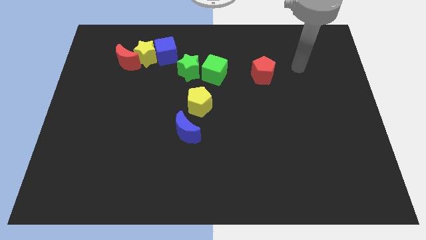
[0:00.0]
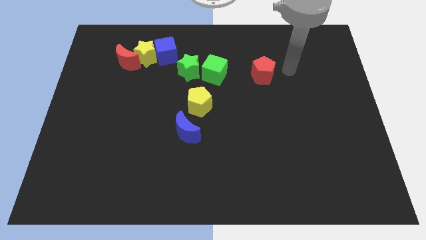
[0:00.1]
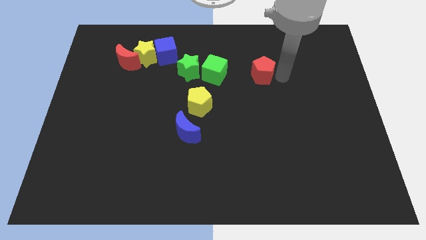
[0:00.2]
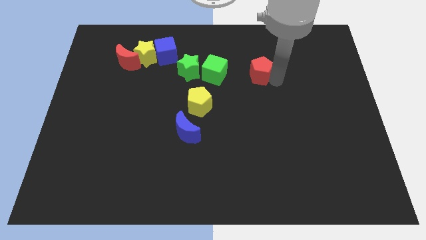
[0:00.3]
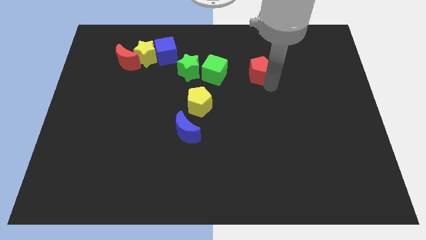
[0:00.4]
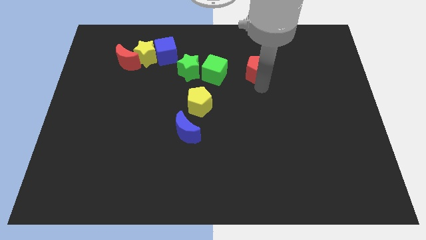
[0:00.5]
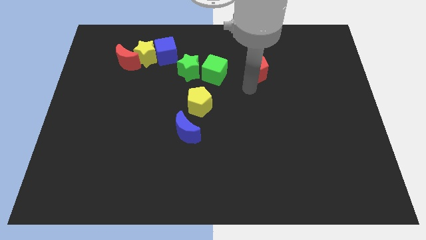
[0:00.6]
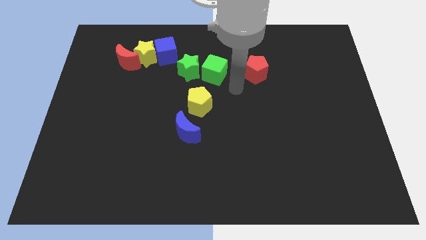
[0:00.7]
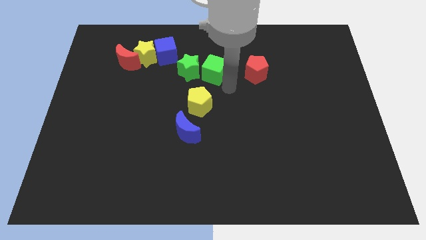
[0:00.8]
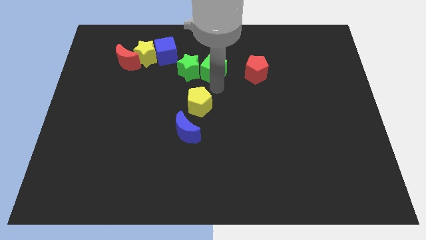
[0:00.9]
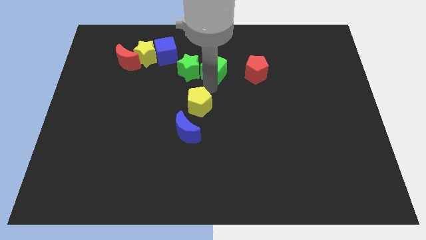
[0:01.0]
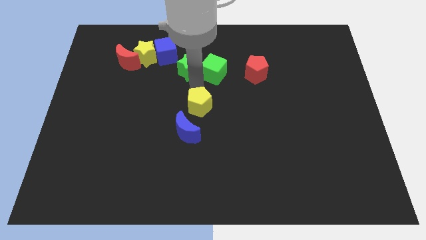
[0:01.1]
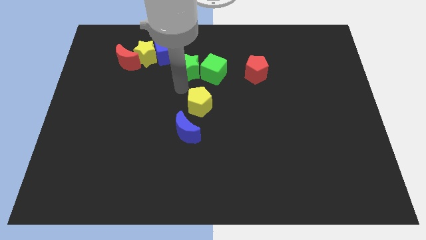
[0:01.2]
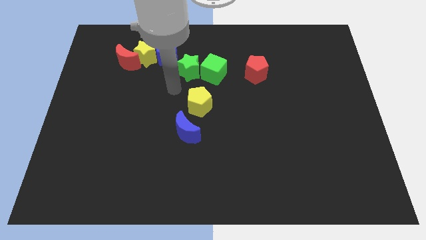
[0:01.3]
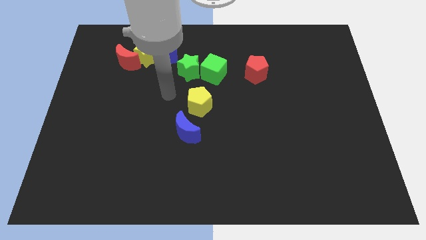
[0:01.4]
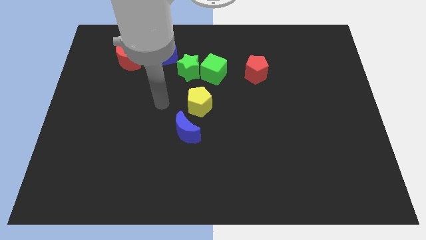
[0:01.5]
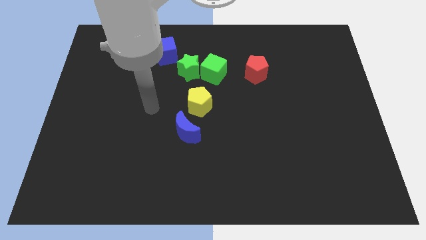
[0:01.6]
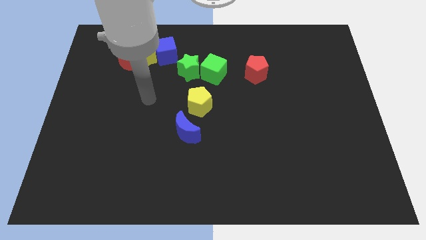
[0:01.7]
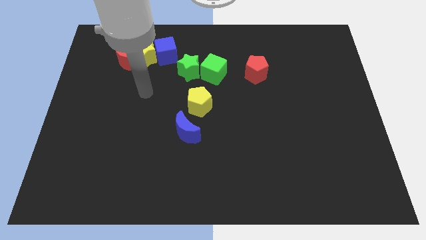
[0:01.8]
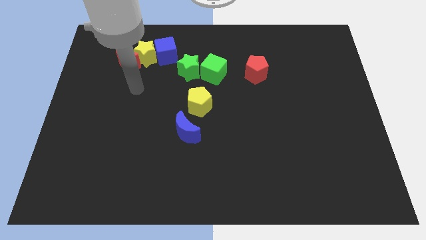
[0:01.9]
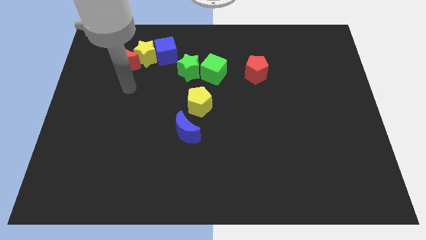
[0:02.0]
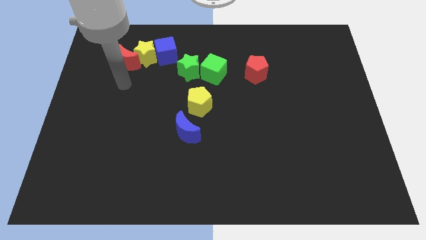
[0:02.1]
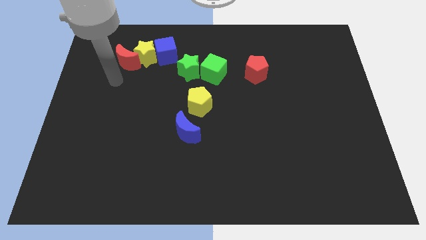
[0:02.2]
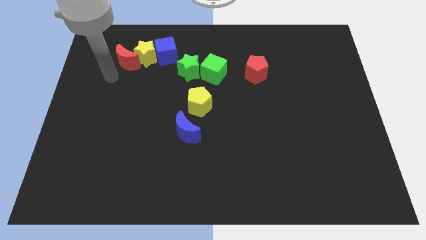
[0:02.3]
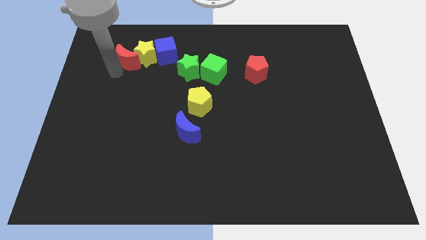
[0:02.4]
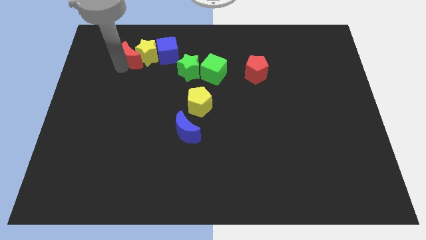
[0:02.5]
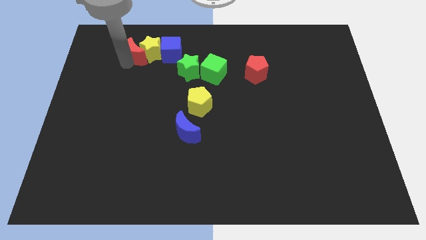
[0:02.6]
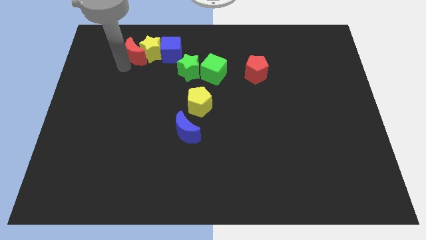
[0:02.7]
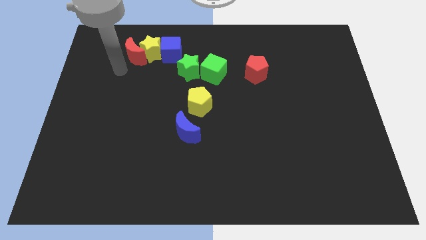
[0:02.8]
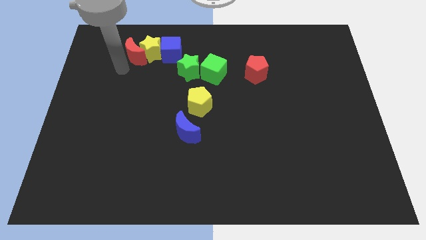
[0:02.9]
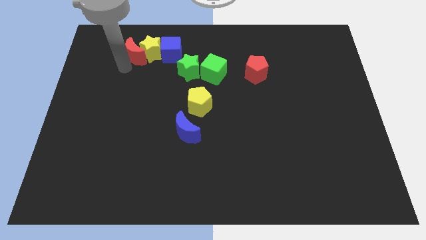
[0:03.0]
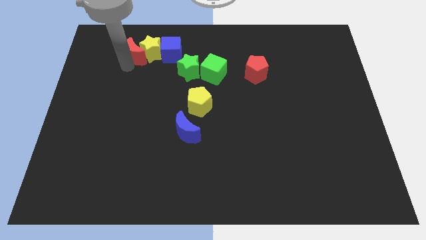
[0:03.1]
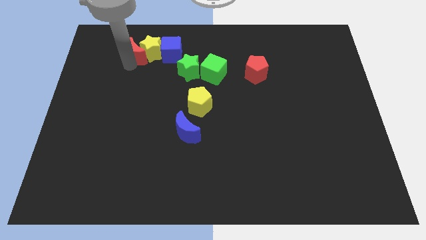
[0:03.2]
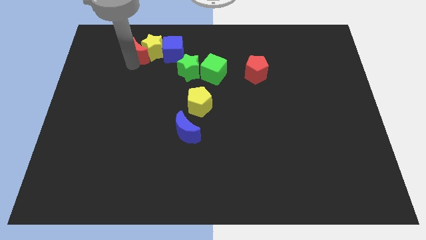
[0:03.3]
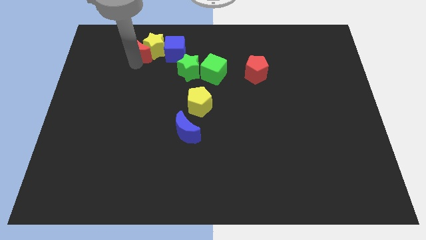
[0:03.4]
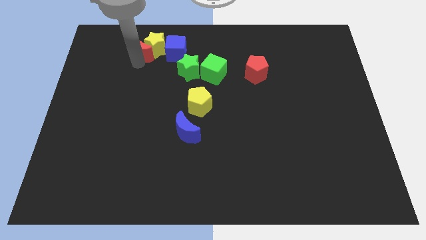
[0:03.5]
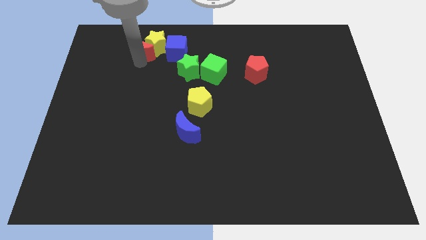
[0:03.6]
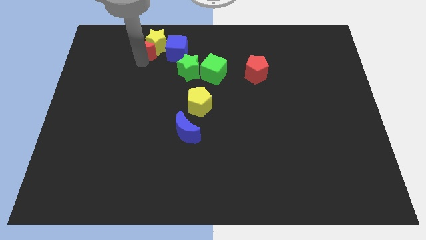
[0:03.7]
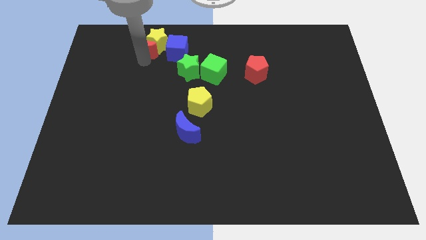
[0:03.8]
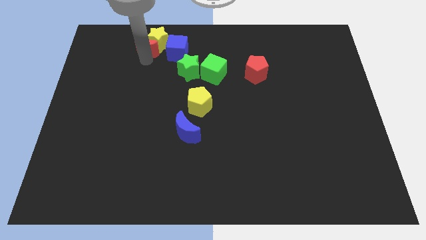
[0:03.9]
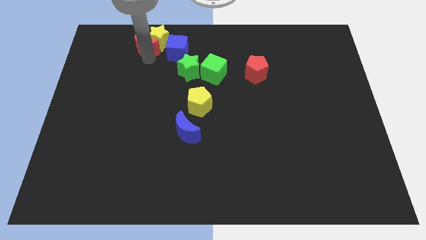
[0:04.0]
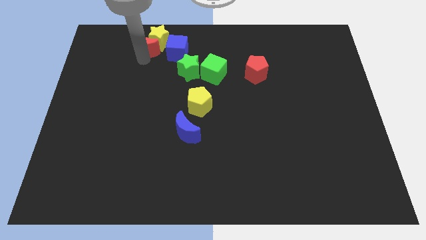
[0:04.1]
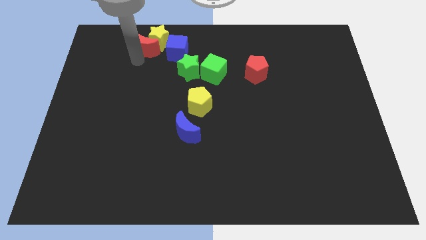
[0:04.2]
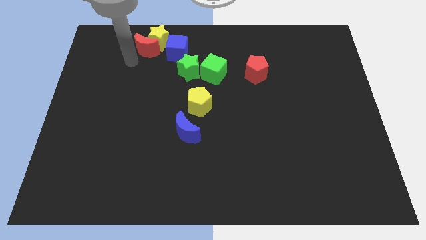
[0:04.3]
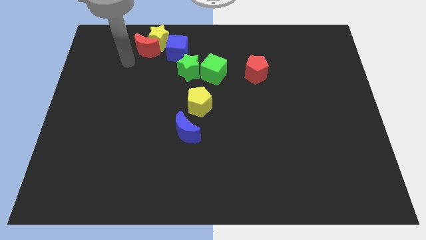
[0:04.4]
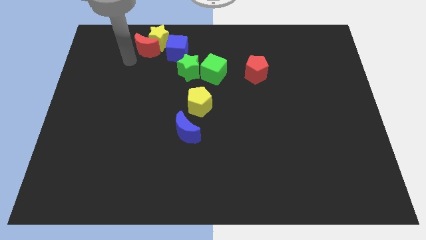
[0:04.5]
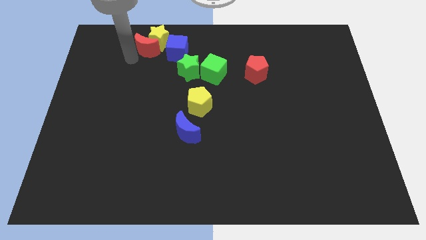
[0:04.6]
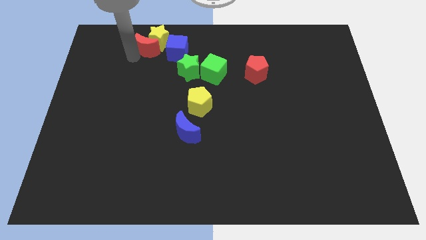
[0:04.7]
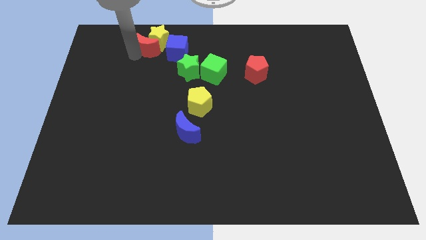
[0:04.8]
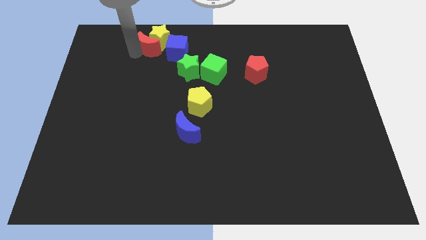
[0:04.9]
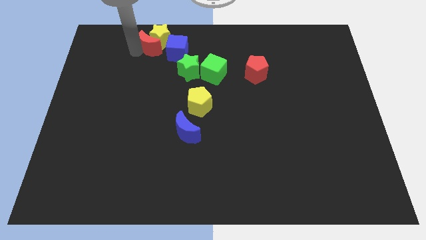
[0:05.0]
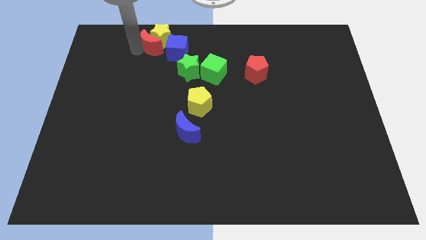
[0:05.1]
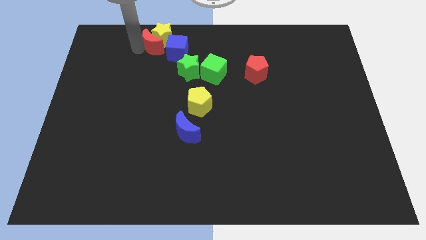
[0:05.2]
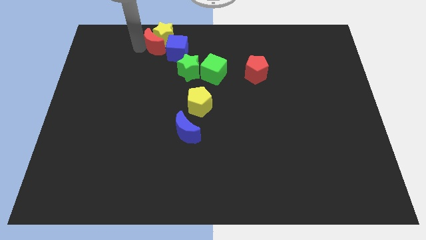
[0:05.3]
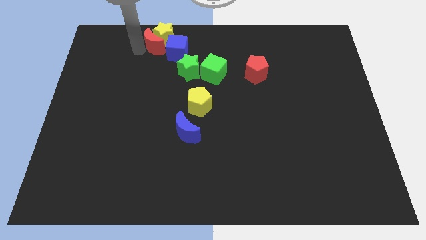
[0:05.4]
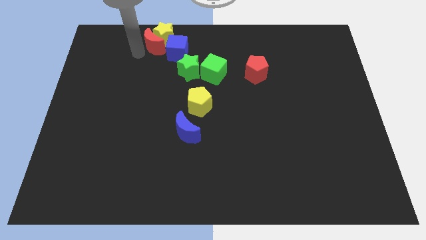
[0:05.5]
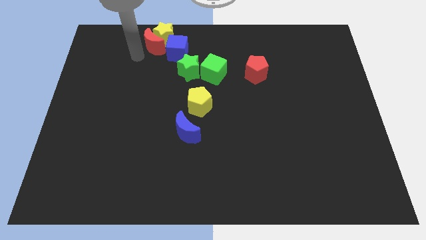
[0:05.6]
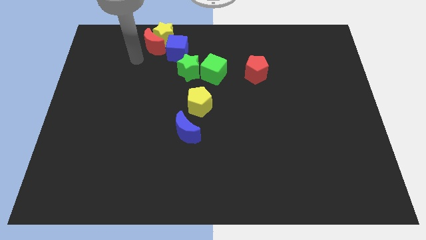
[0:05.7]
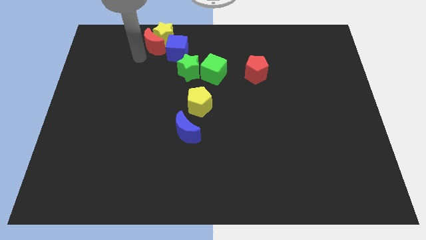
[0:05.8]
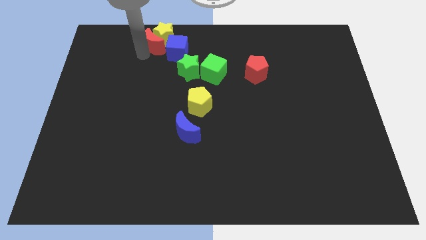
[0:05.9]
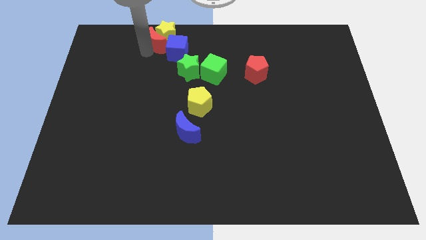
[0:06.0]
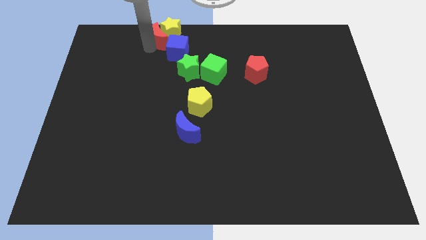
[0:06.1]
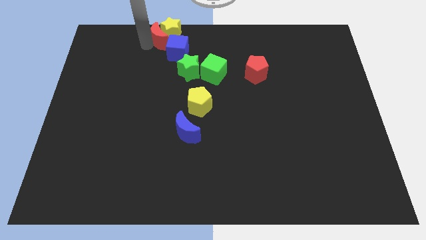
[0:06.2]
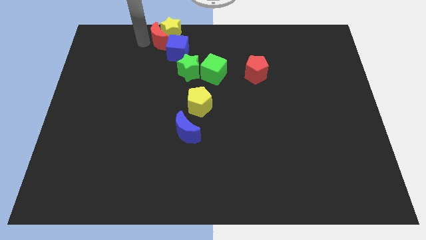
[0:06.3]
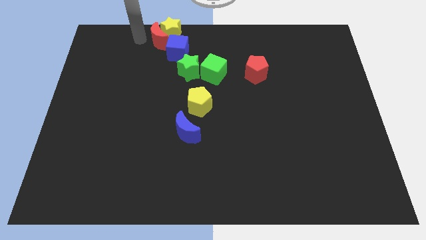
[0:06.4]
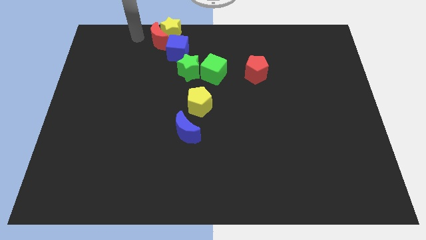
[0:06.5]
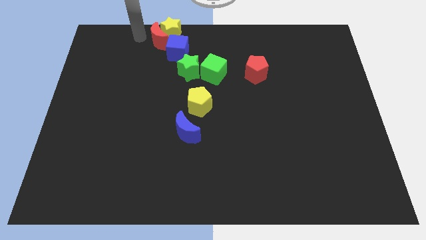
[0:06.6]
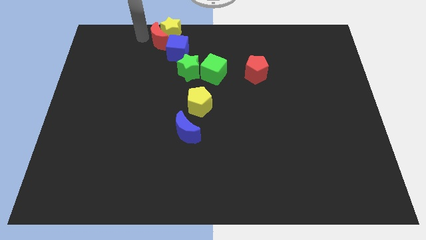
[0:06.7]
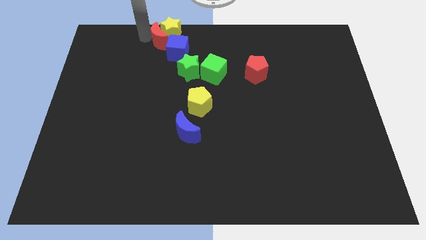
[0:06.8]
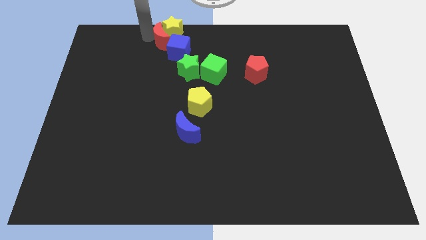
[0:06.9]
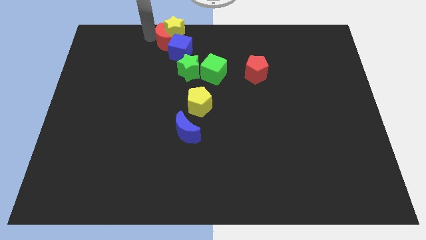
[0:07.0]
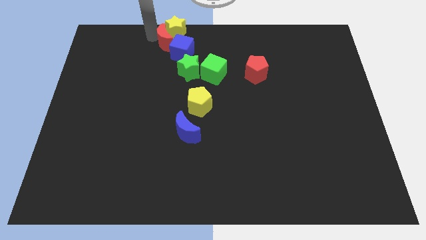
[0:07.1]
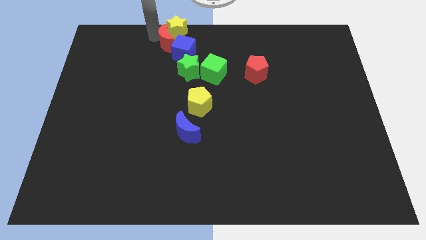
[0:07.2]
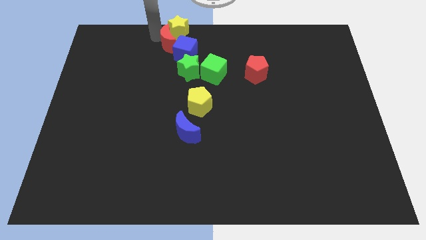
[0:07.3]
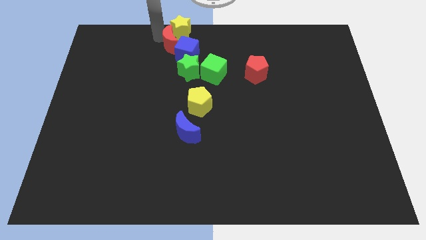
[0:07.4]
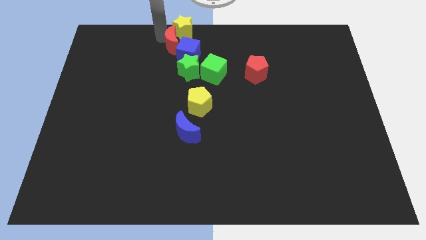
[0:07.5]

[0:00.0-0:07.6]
slide the red moon to the top side

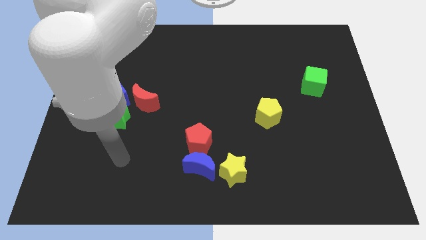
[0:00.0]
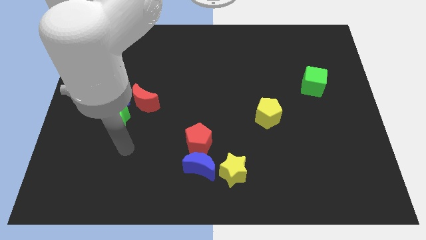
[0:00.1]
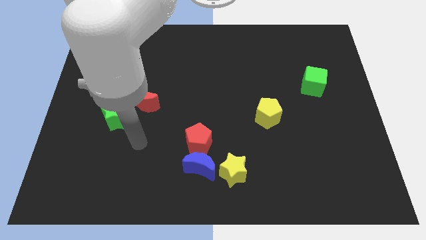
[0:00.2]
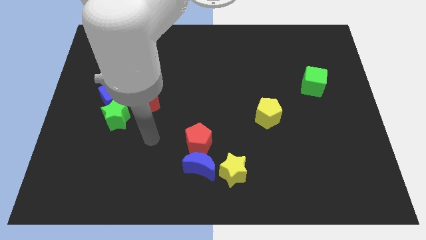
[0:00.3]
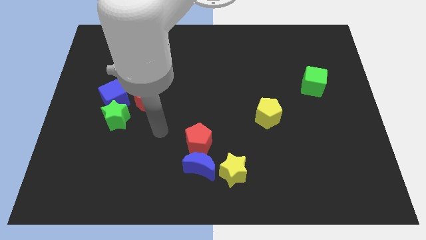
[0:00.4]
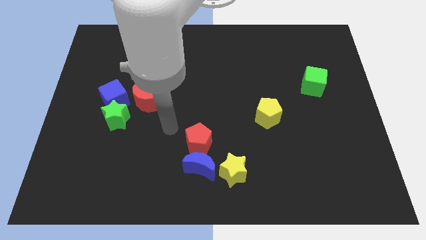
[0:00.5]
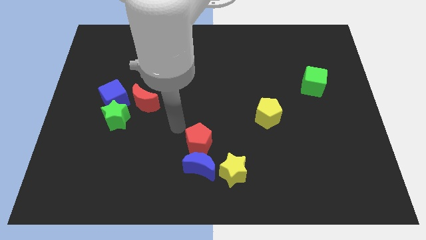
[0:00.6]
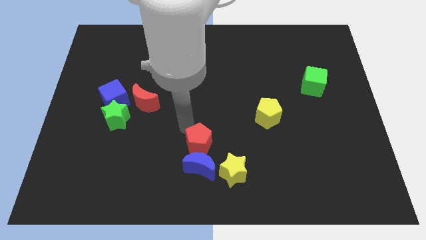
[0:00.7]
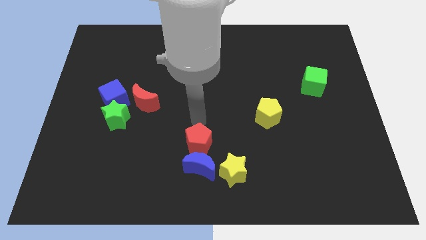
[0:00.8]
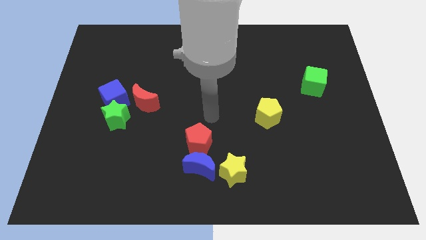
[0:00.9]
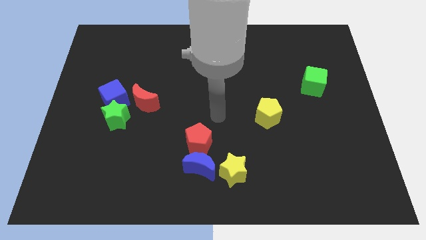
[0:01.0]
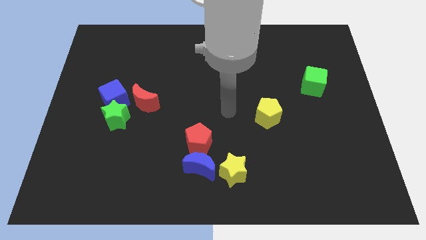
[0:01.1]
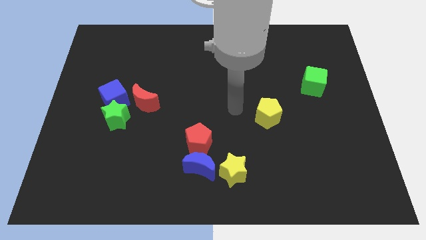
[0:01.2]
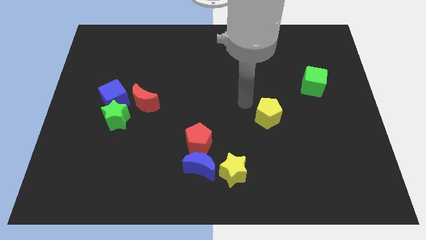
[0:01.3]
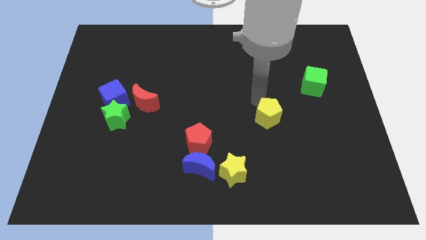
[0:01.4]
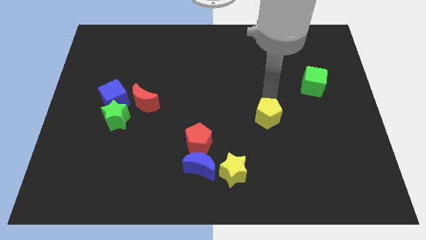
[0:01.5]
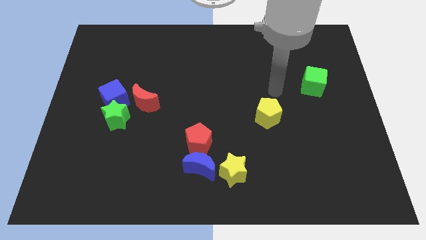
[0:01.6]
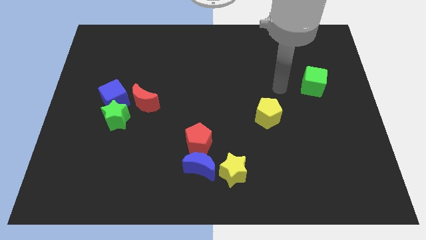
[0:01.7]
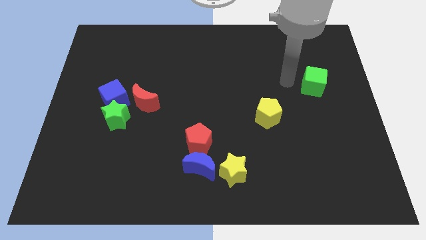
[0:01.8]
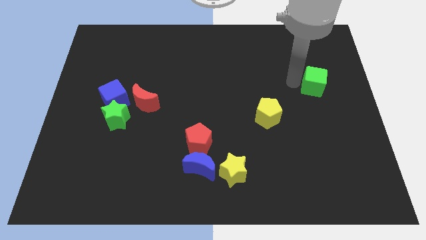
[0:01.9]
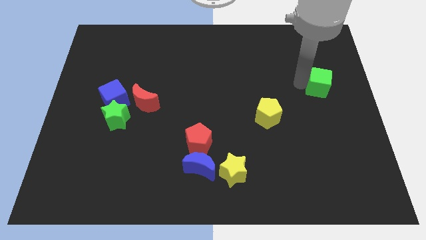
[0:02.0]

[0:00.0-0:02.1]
move the green cube to the center right
